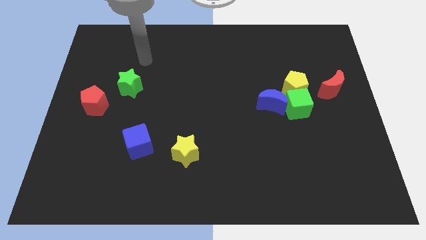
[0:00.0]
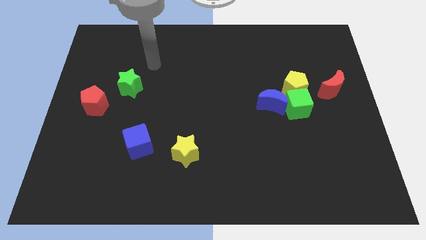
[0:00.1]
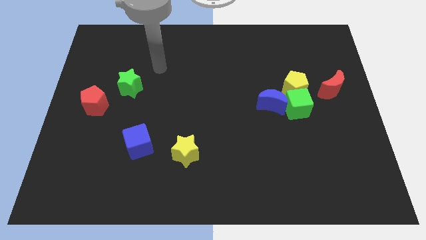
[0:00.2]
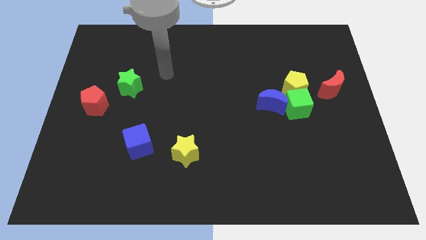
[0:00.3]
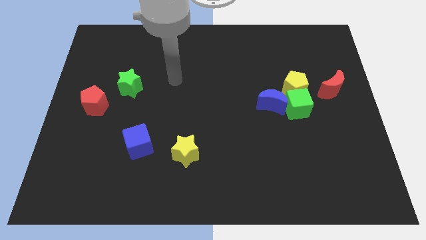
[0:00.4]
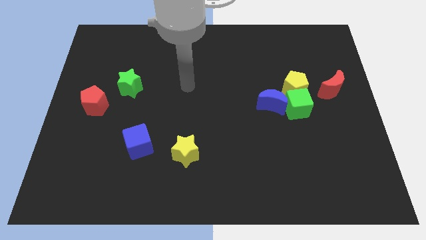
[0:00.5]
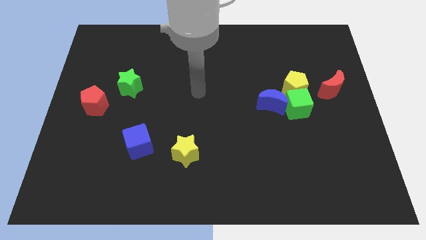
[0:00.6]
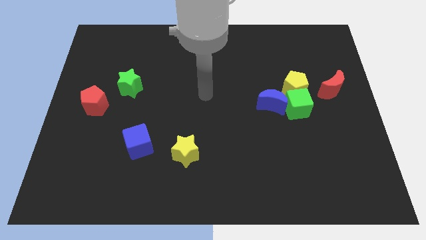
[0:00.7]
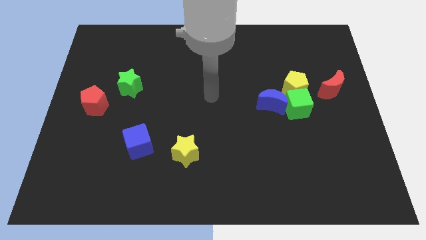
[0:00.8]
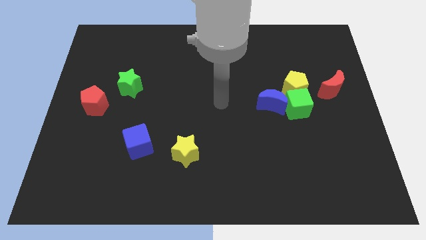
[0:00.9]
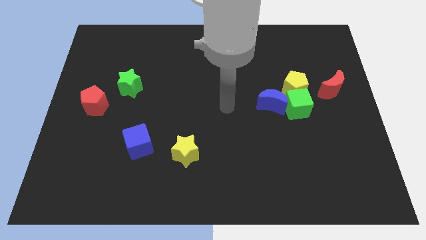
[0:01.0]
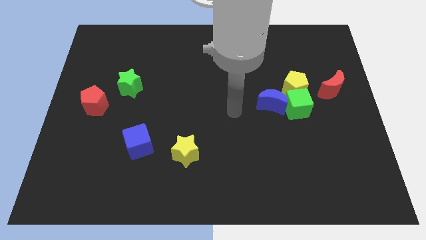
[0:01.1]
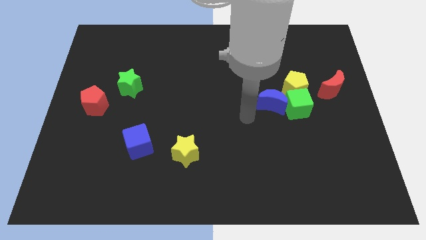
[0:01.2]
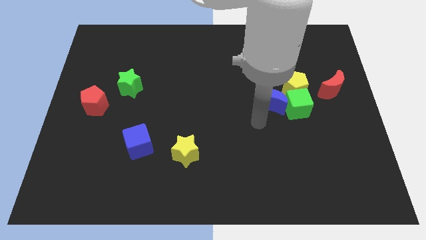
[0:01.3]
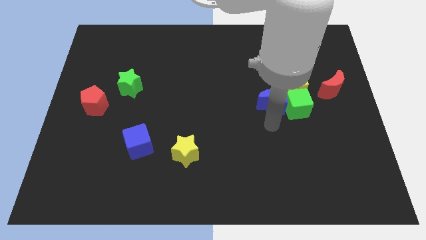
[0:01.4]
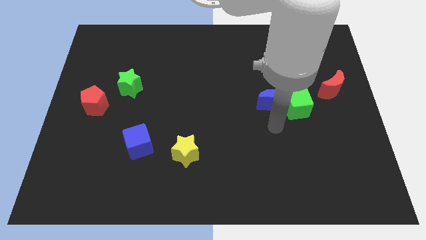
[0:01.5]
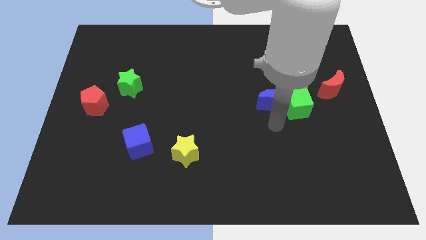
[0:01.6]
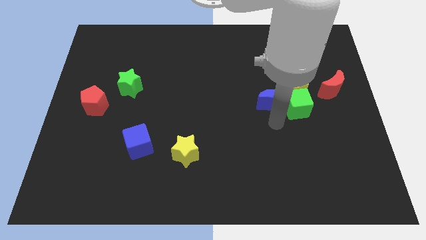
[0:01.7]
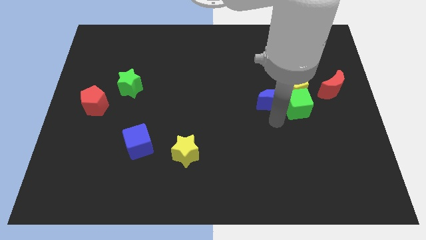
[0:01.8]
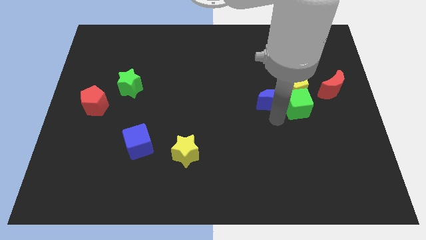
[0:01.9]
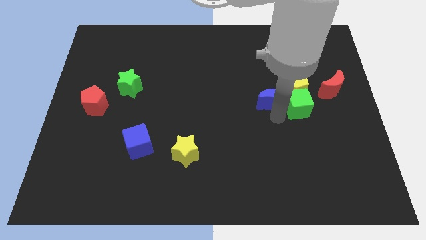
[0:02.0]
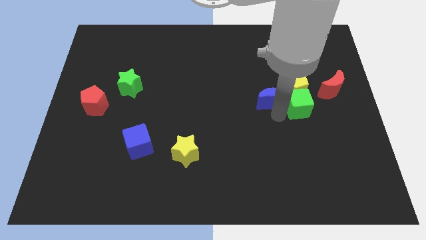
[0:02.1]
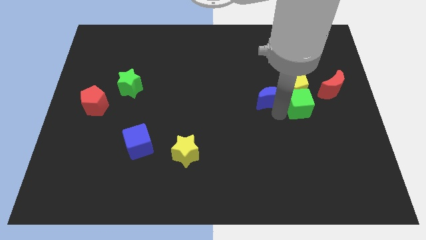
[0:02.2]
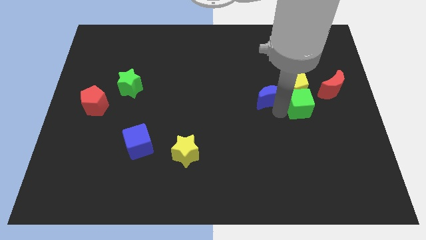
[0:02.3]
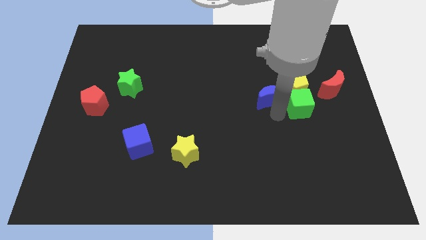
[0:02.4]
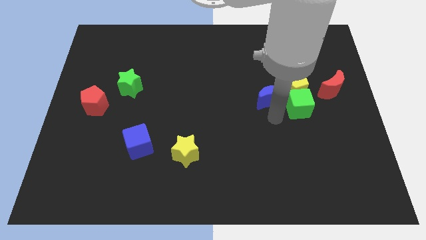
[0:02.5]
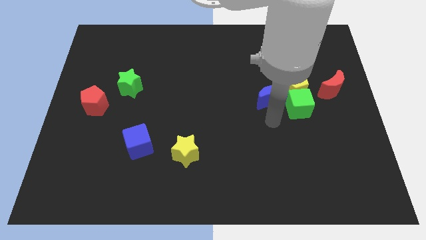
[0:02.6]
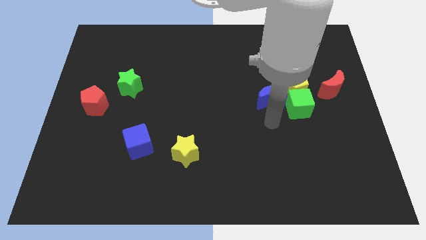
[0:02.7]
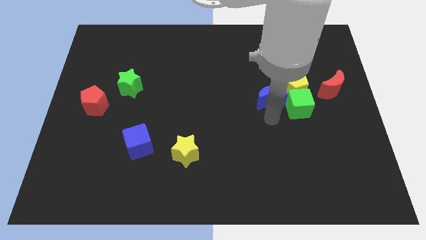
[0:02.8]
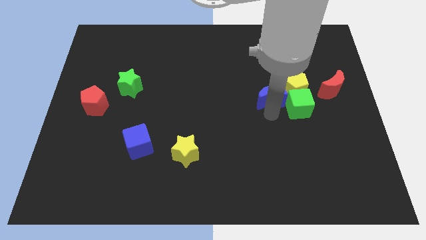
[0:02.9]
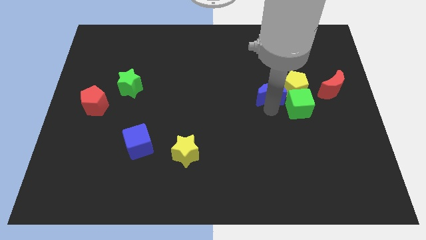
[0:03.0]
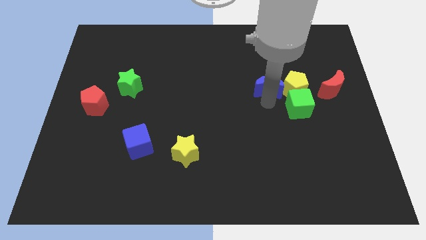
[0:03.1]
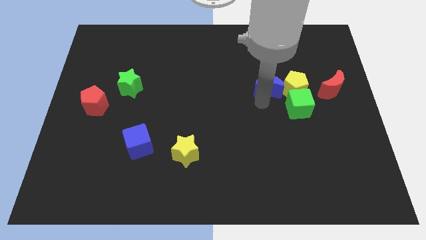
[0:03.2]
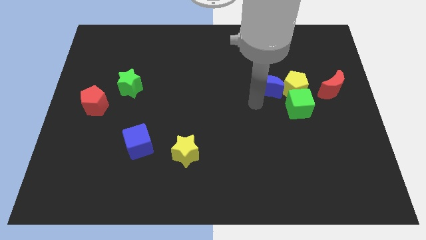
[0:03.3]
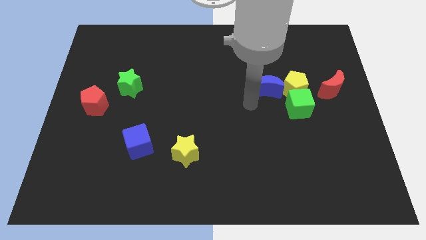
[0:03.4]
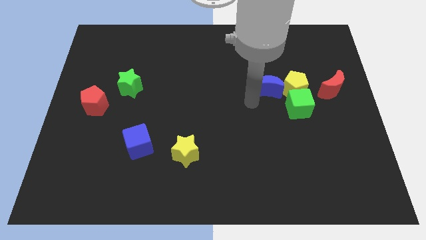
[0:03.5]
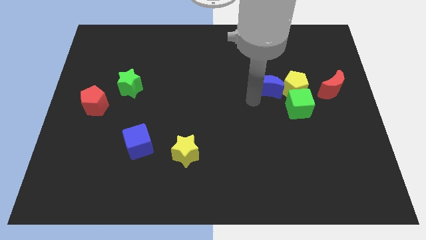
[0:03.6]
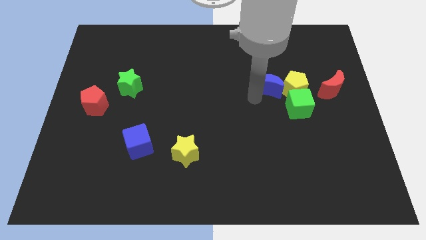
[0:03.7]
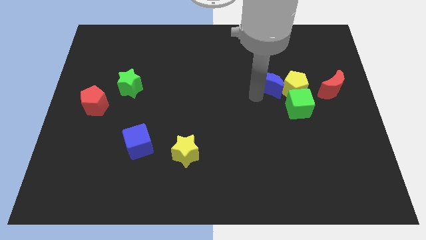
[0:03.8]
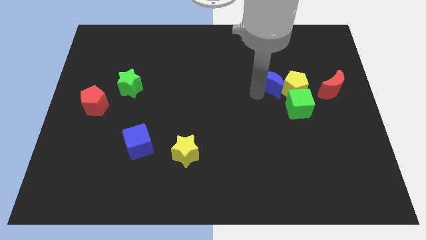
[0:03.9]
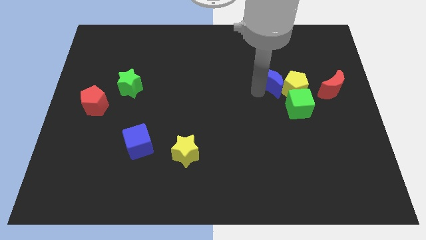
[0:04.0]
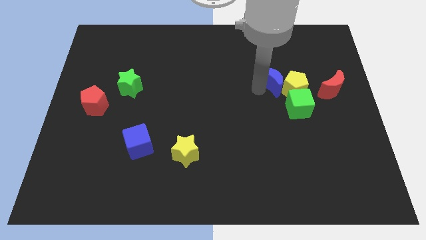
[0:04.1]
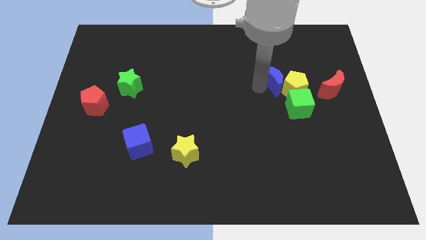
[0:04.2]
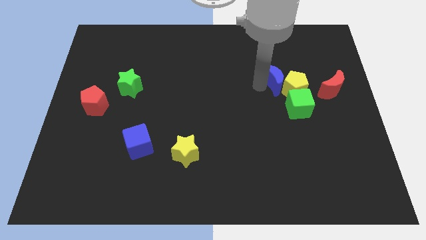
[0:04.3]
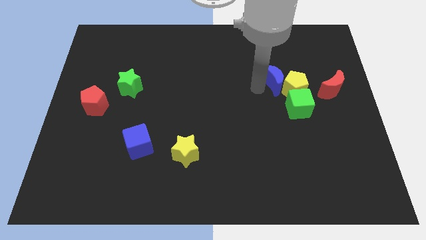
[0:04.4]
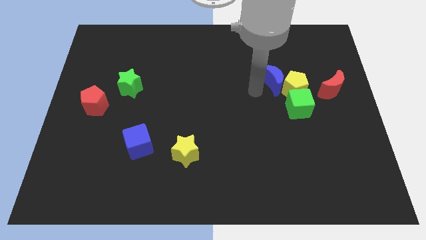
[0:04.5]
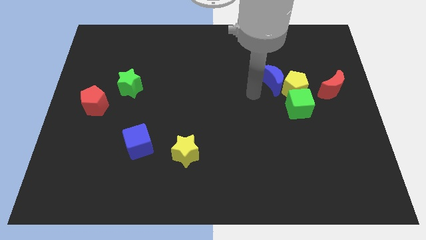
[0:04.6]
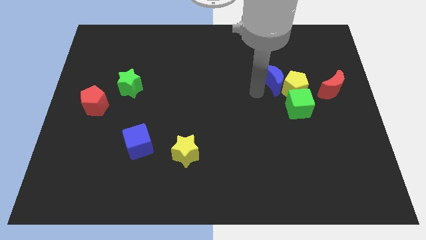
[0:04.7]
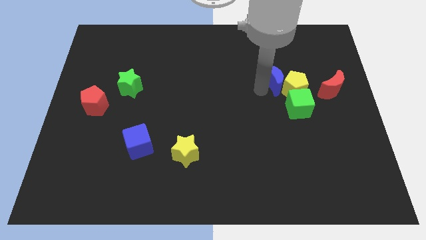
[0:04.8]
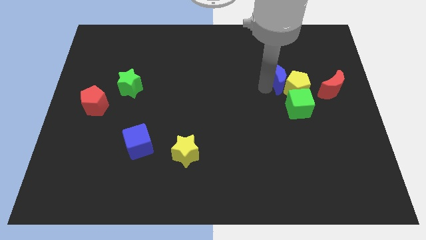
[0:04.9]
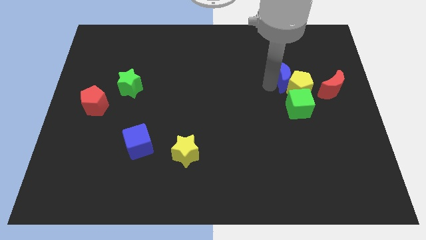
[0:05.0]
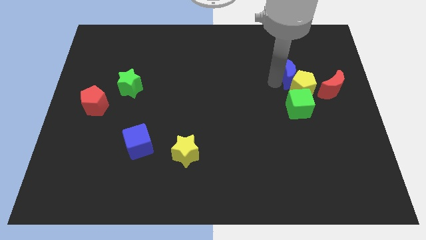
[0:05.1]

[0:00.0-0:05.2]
move the blue moon diagonally up and to the left of the red moon

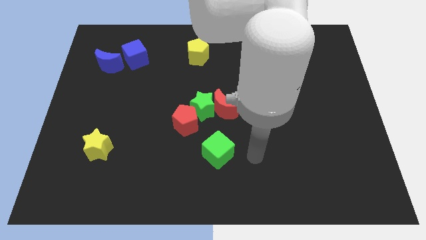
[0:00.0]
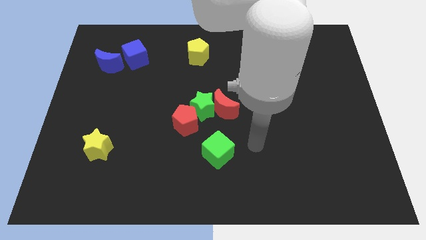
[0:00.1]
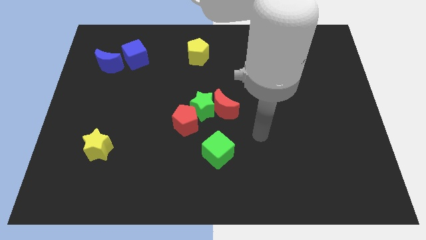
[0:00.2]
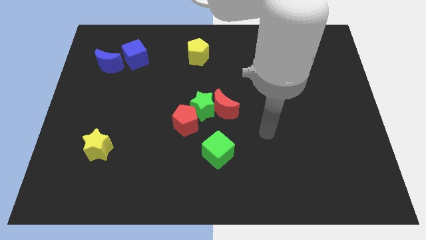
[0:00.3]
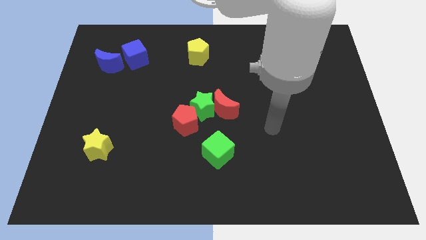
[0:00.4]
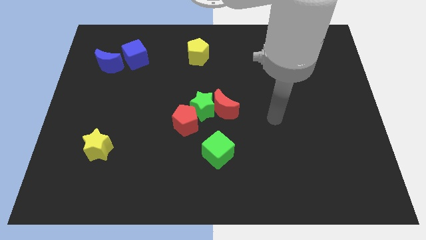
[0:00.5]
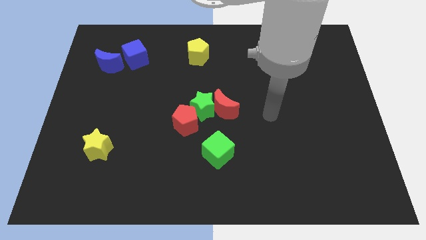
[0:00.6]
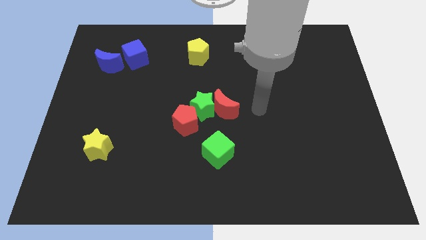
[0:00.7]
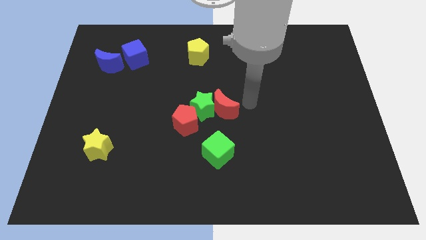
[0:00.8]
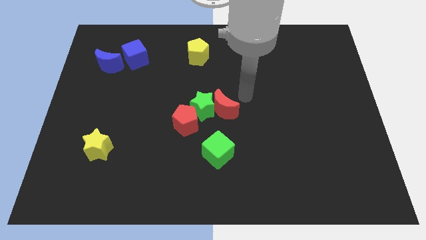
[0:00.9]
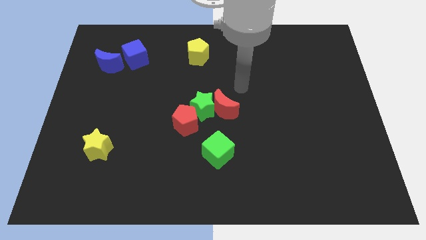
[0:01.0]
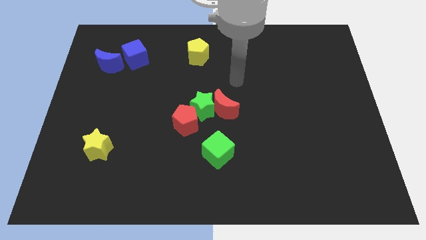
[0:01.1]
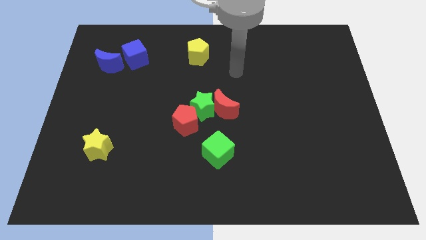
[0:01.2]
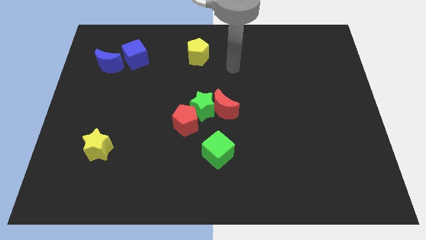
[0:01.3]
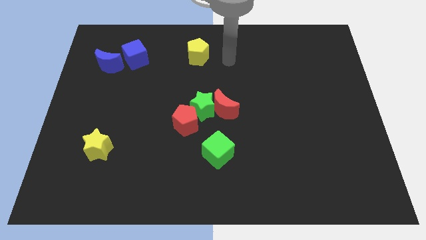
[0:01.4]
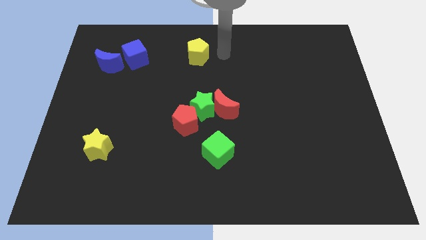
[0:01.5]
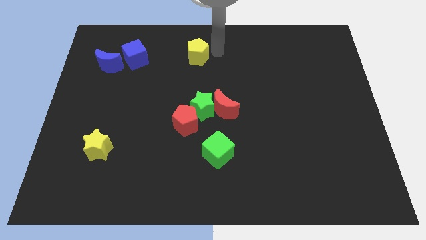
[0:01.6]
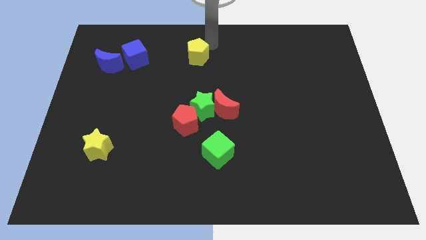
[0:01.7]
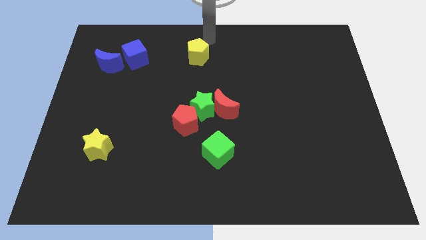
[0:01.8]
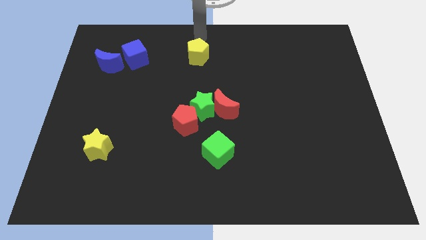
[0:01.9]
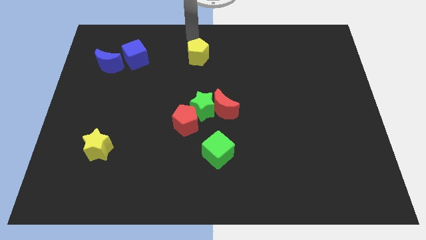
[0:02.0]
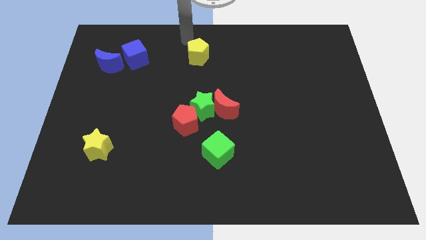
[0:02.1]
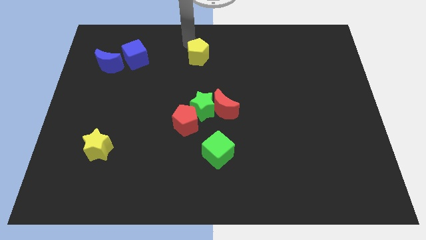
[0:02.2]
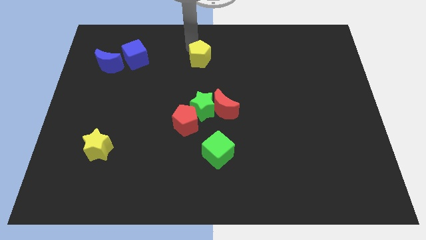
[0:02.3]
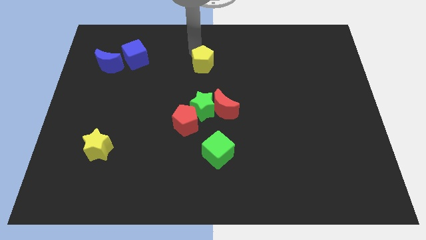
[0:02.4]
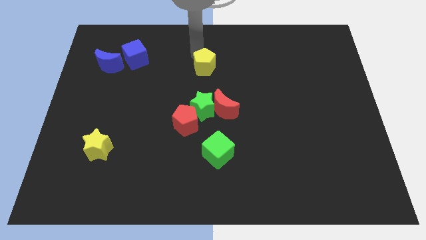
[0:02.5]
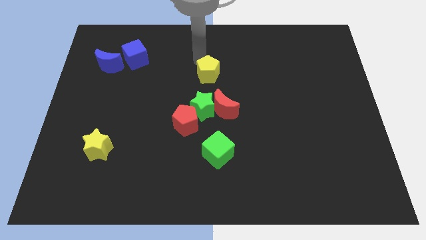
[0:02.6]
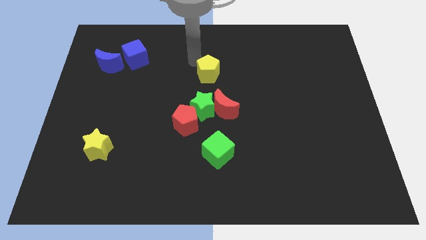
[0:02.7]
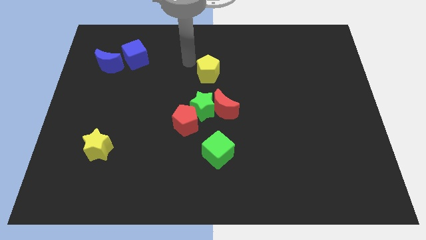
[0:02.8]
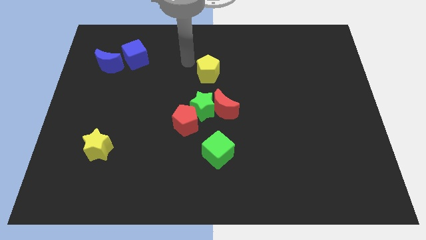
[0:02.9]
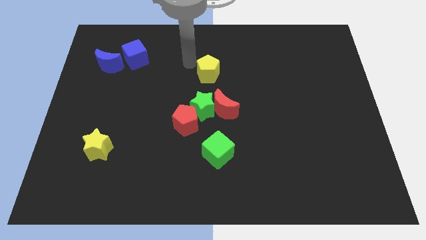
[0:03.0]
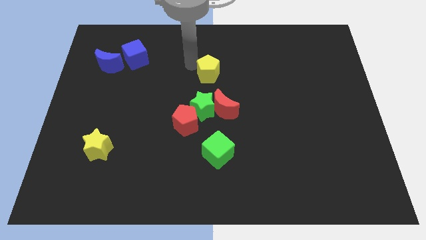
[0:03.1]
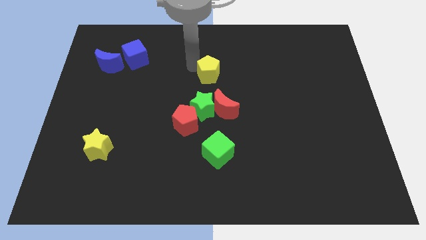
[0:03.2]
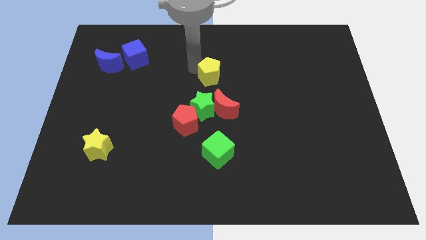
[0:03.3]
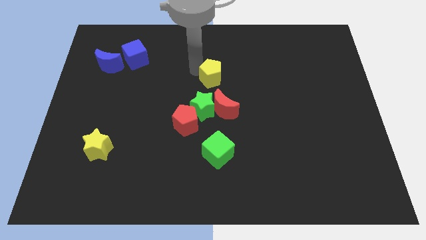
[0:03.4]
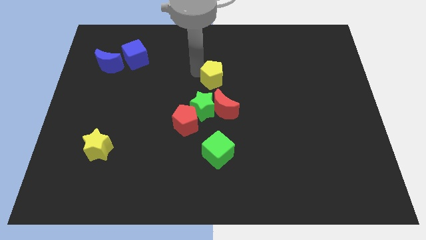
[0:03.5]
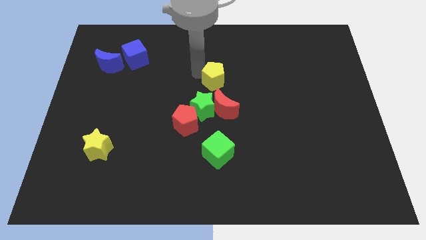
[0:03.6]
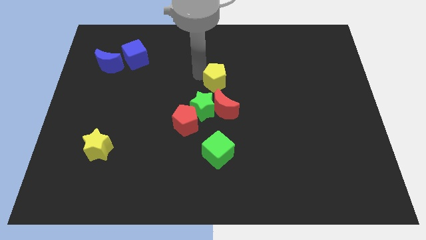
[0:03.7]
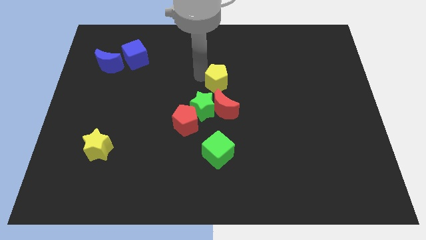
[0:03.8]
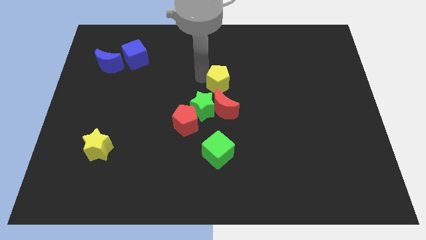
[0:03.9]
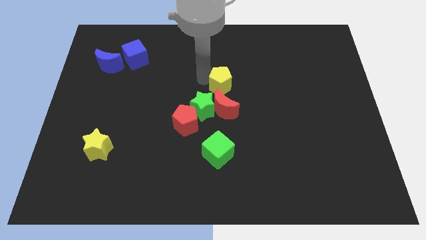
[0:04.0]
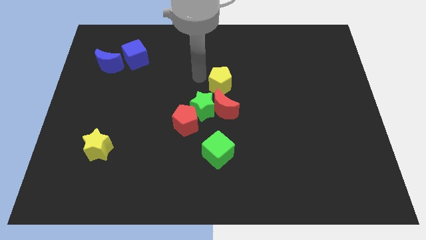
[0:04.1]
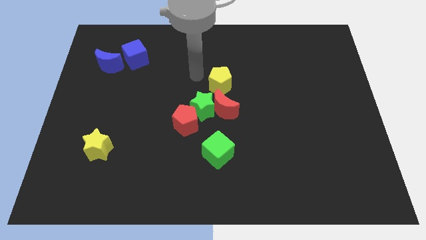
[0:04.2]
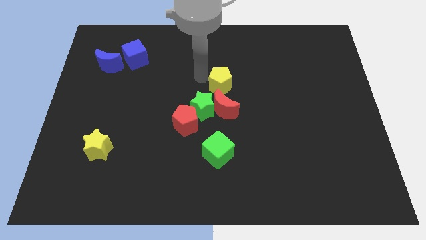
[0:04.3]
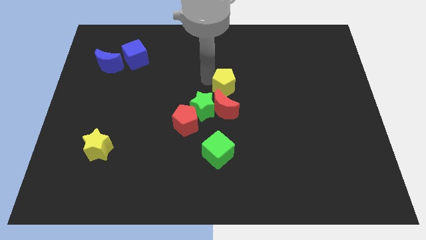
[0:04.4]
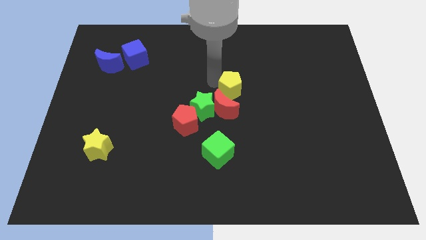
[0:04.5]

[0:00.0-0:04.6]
move the yellow pentagon to the top right side of the red moon
